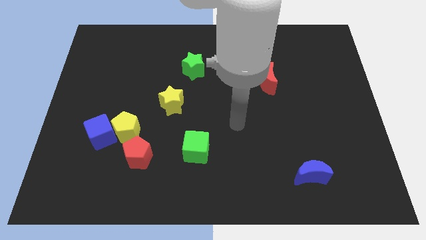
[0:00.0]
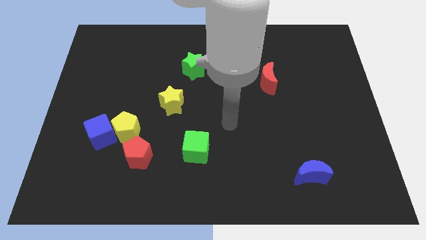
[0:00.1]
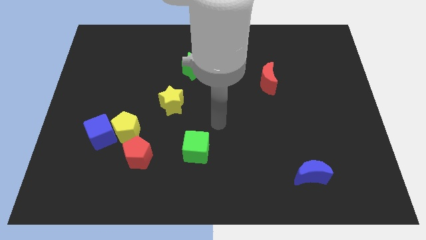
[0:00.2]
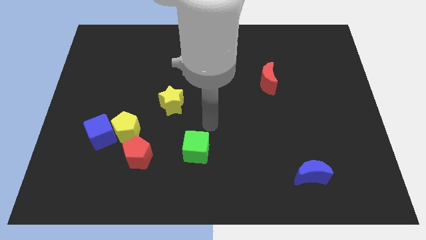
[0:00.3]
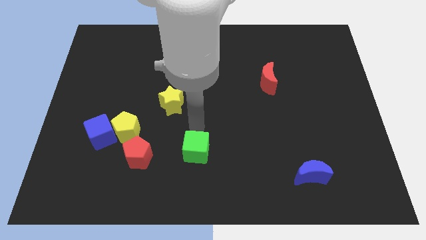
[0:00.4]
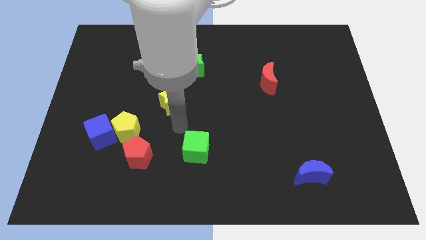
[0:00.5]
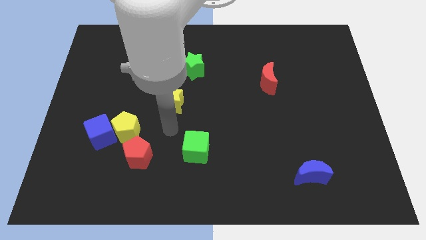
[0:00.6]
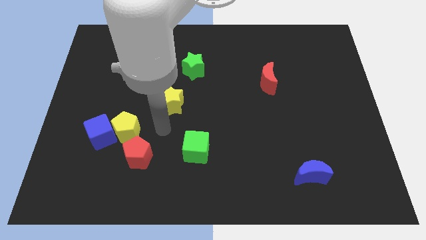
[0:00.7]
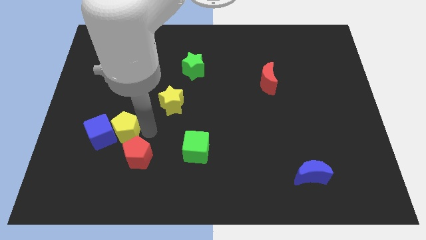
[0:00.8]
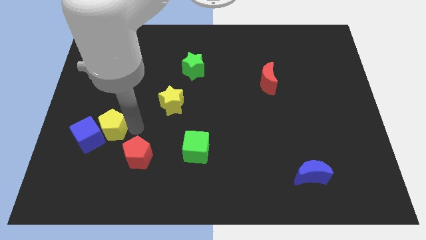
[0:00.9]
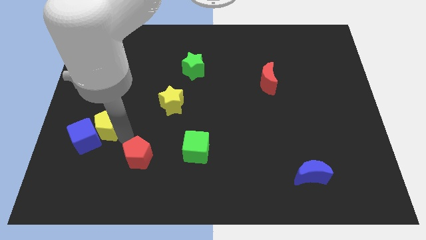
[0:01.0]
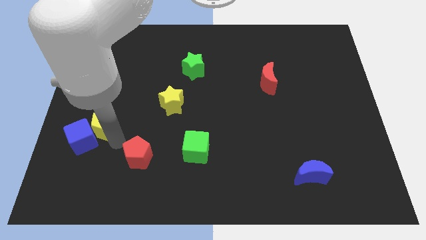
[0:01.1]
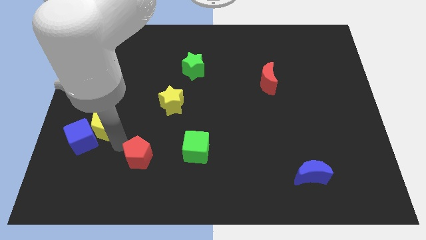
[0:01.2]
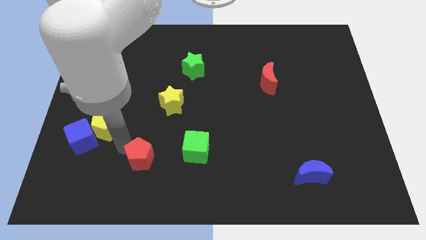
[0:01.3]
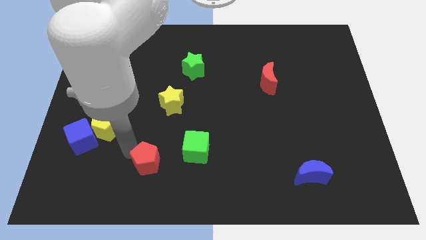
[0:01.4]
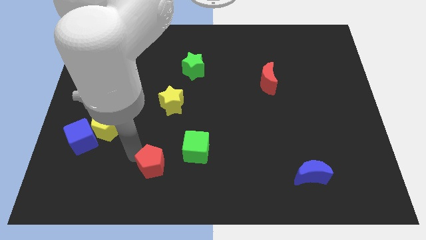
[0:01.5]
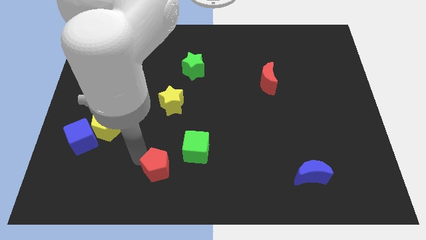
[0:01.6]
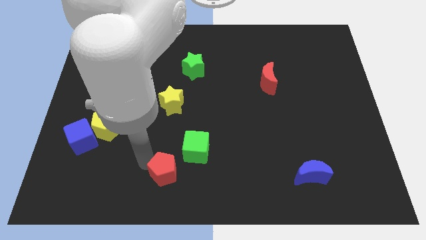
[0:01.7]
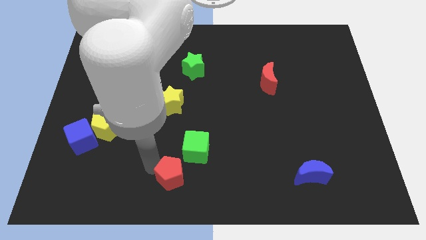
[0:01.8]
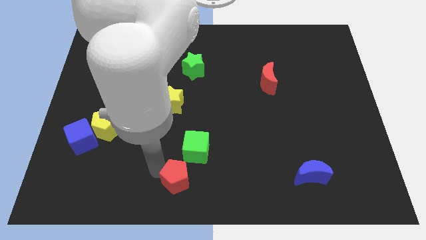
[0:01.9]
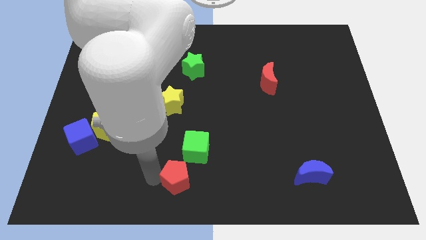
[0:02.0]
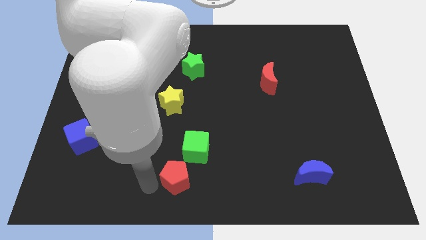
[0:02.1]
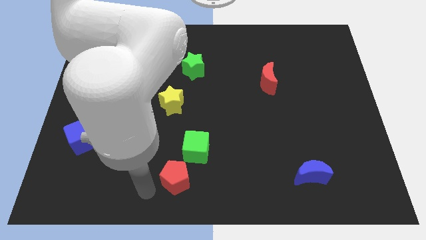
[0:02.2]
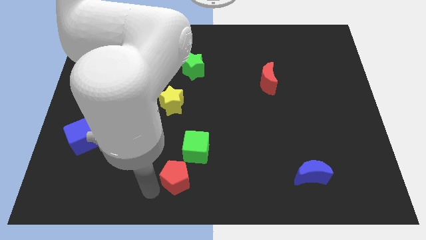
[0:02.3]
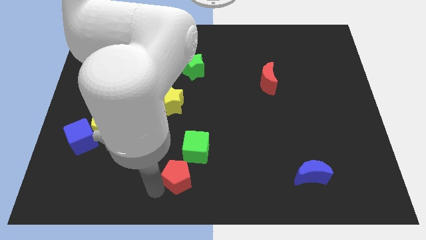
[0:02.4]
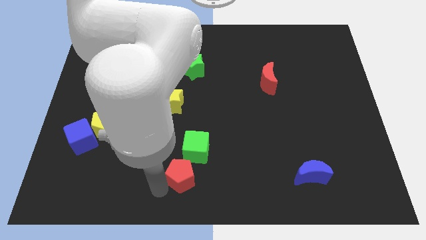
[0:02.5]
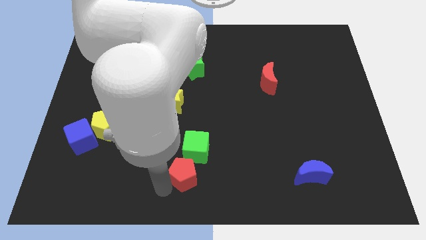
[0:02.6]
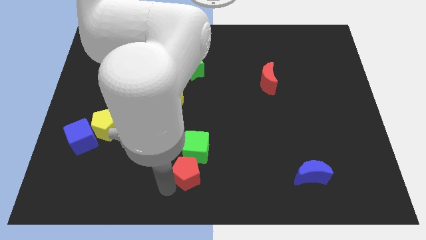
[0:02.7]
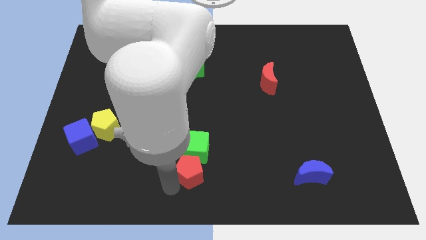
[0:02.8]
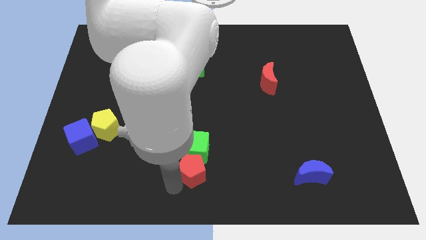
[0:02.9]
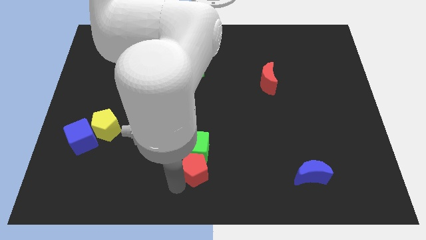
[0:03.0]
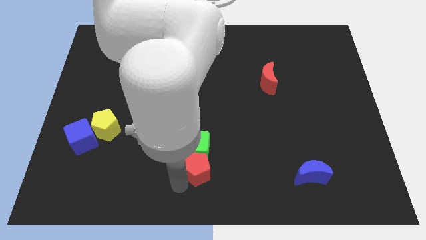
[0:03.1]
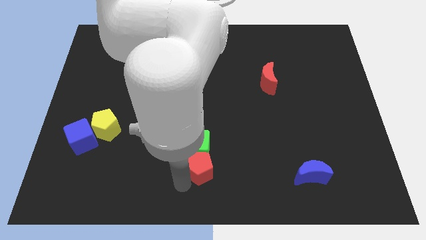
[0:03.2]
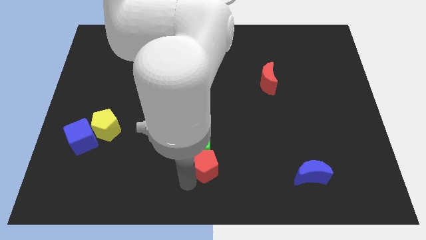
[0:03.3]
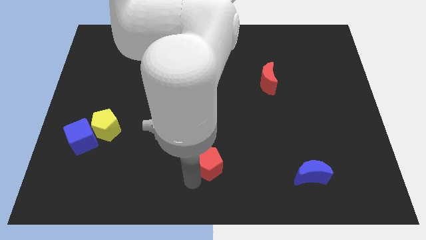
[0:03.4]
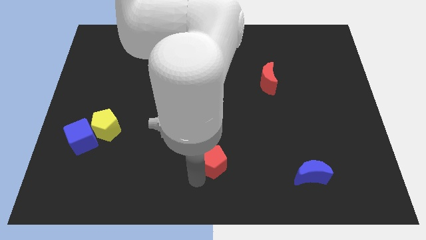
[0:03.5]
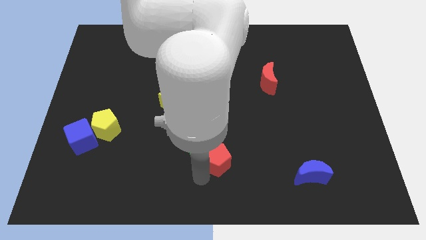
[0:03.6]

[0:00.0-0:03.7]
put the red pentagon to the right side of the green cube

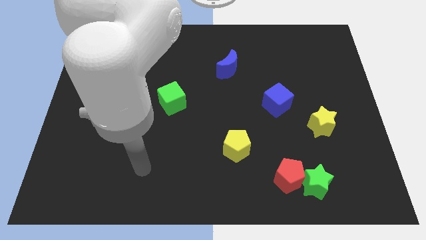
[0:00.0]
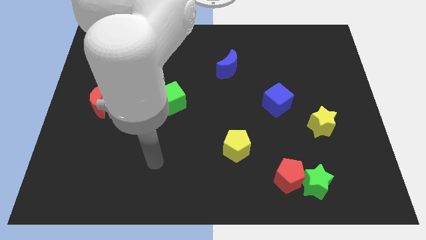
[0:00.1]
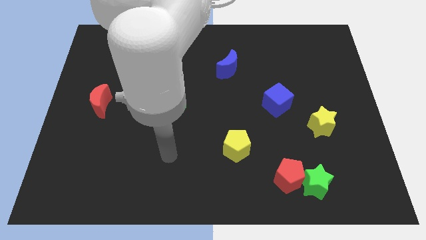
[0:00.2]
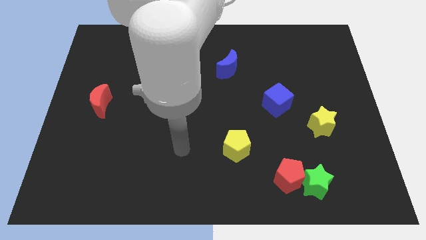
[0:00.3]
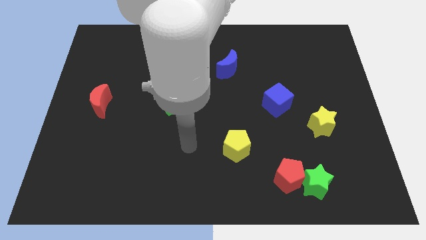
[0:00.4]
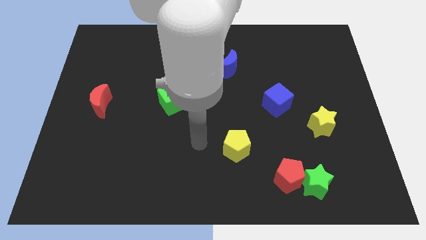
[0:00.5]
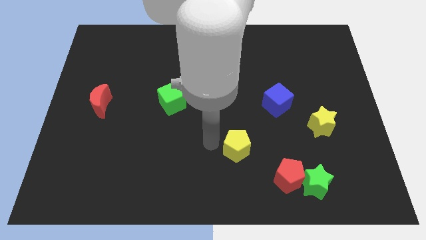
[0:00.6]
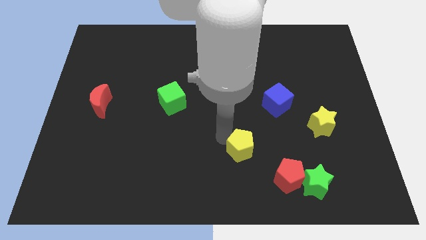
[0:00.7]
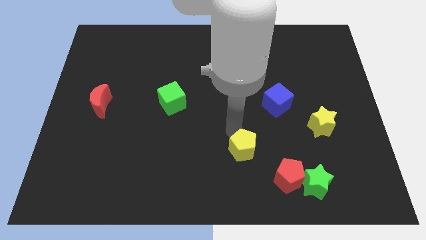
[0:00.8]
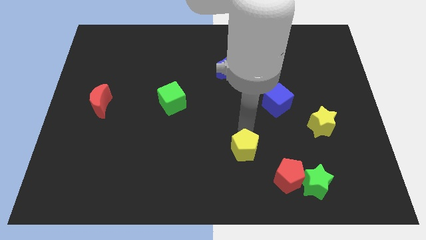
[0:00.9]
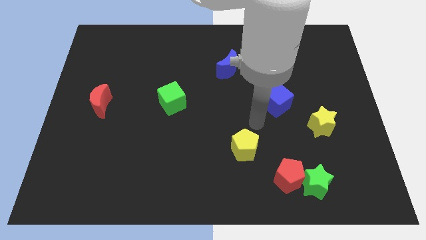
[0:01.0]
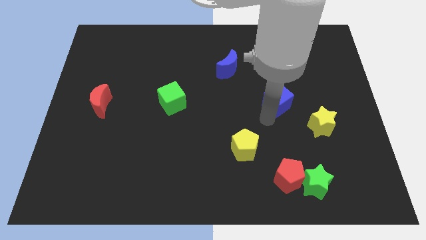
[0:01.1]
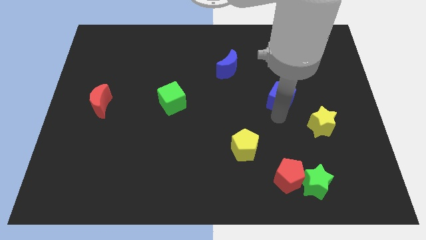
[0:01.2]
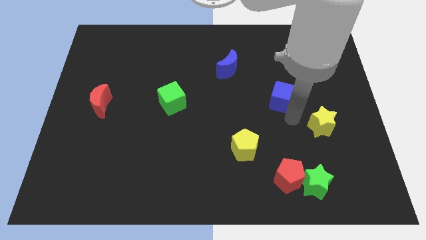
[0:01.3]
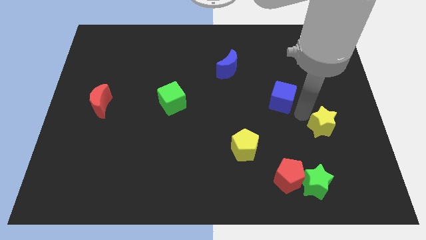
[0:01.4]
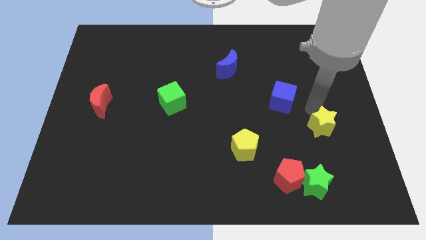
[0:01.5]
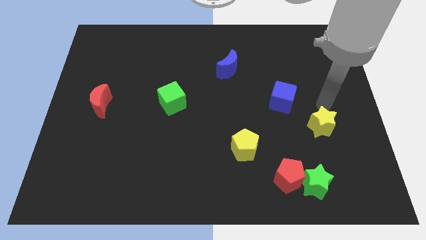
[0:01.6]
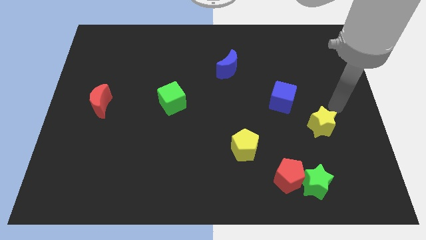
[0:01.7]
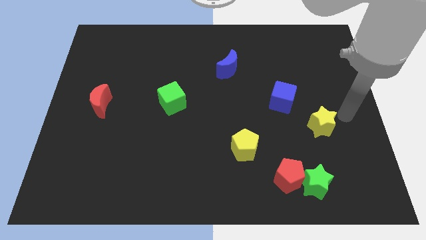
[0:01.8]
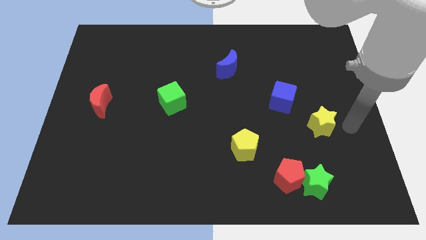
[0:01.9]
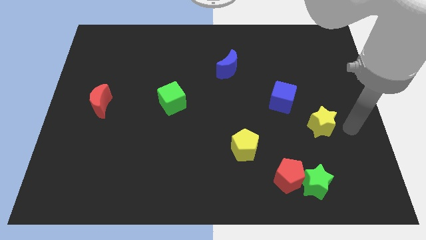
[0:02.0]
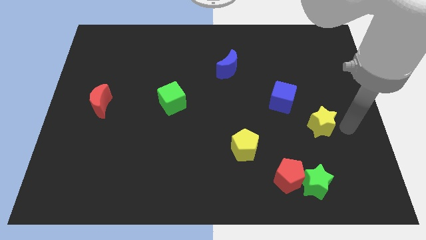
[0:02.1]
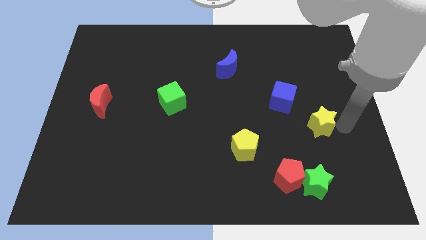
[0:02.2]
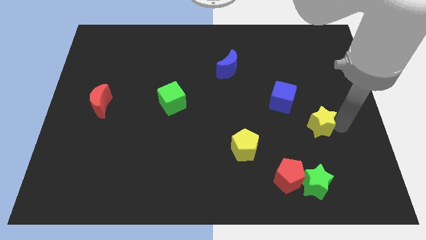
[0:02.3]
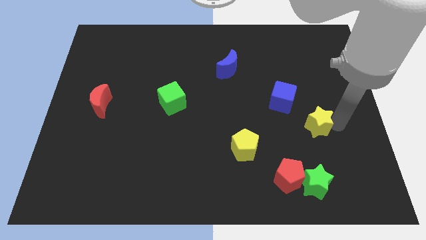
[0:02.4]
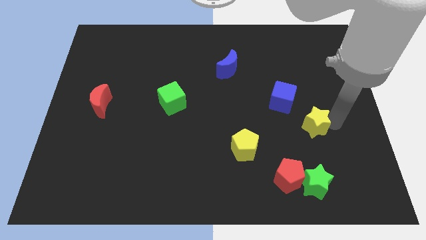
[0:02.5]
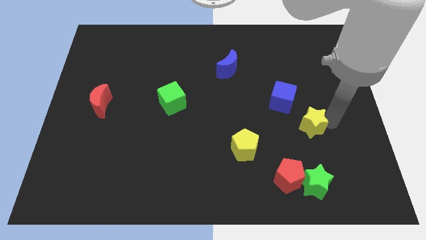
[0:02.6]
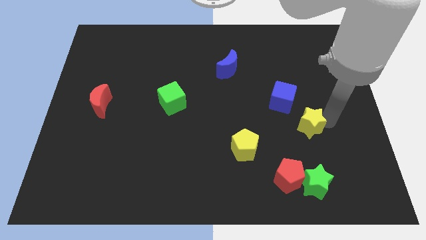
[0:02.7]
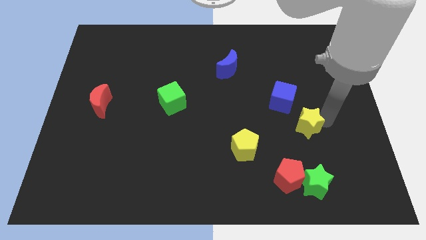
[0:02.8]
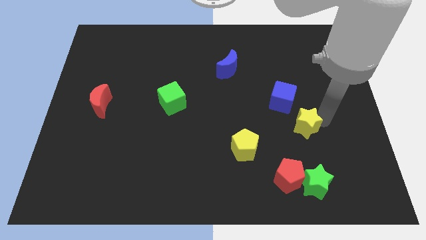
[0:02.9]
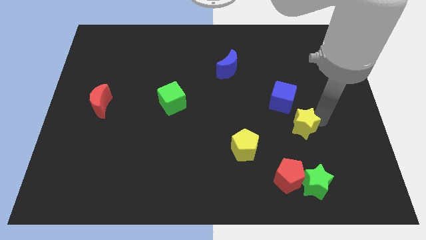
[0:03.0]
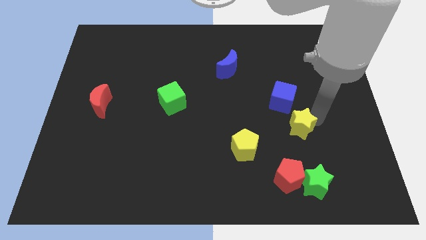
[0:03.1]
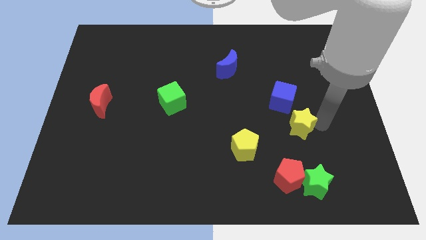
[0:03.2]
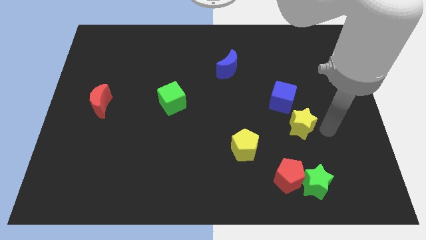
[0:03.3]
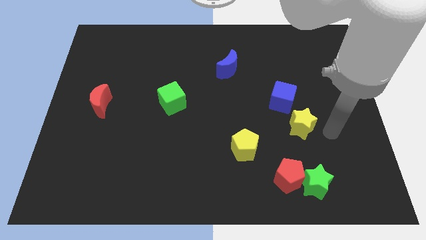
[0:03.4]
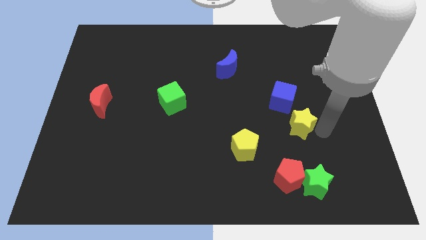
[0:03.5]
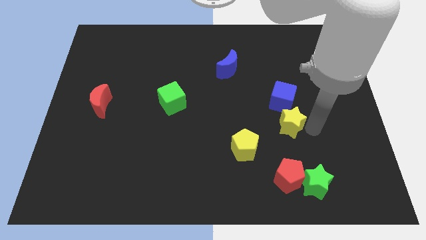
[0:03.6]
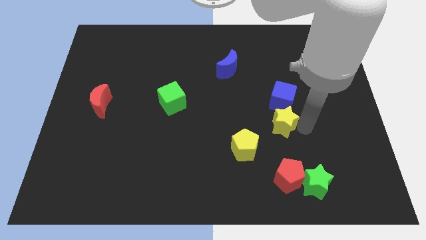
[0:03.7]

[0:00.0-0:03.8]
slide the yellow star to the bottom left of the blue cube
